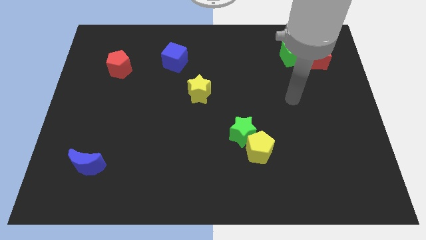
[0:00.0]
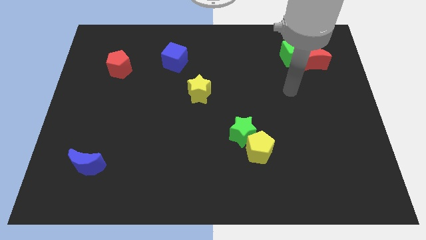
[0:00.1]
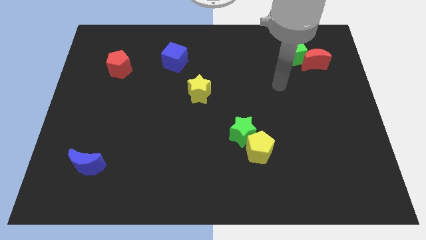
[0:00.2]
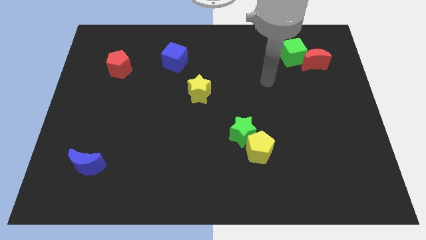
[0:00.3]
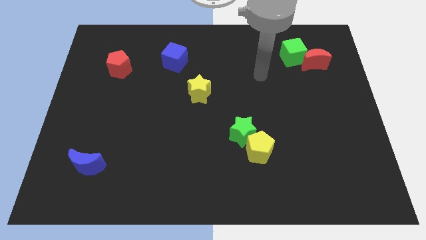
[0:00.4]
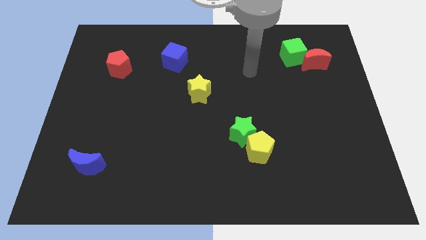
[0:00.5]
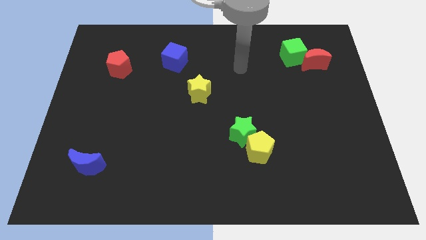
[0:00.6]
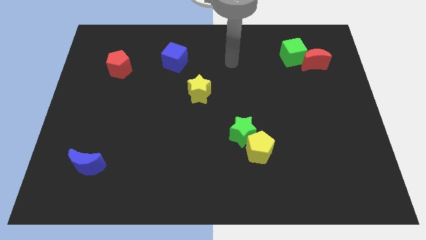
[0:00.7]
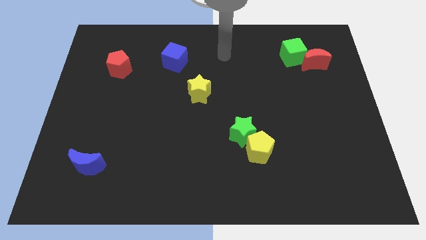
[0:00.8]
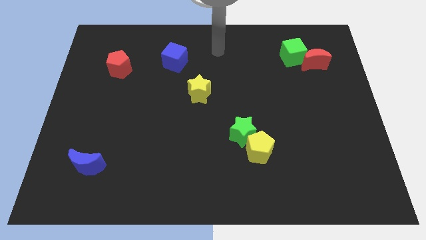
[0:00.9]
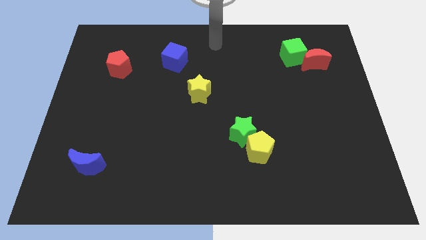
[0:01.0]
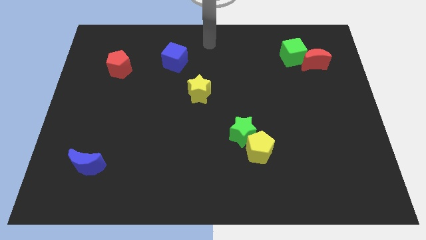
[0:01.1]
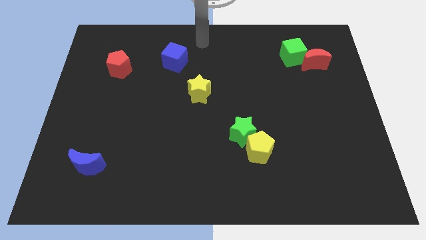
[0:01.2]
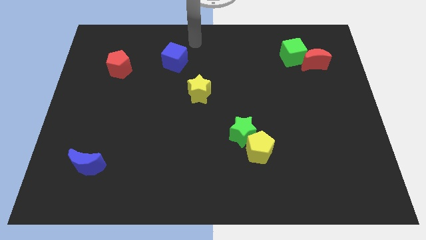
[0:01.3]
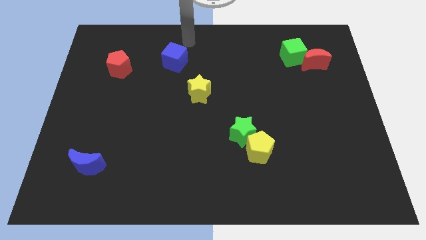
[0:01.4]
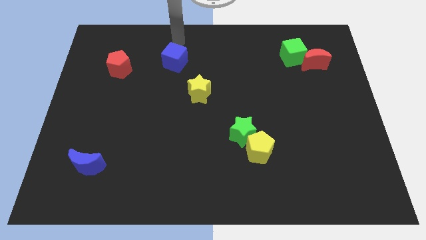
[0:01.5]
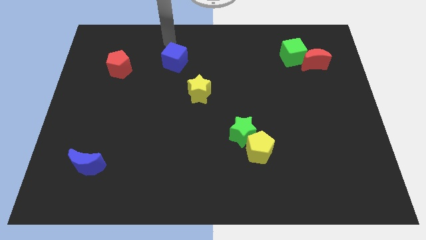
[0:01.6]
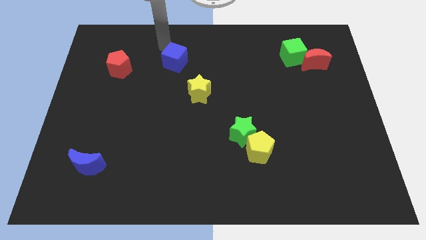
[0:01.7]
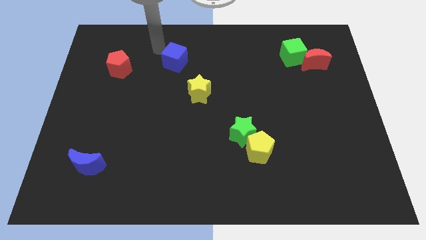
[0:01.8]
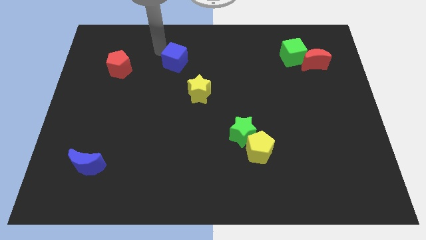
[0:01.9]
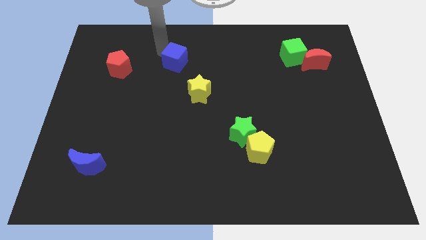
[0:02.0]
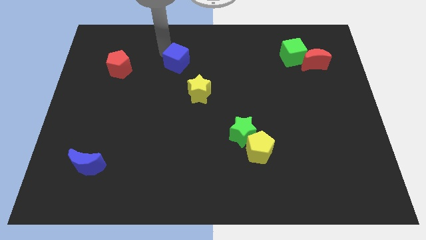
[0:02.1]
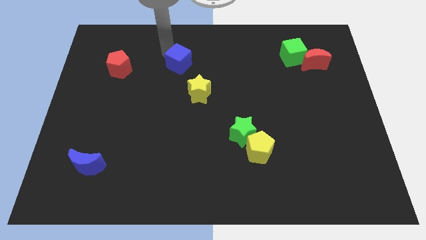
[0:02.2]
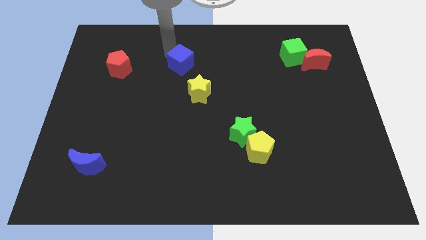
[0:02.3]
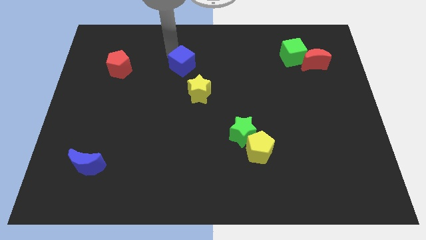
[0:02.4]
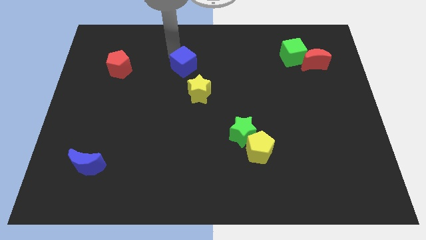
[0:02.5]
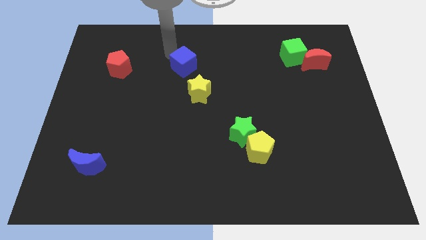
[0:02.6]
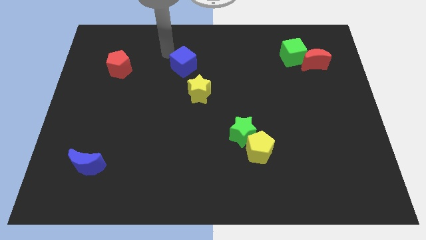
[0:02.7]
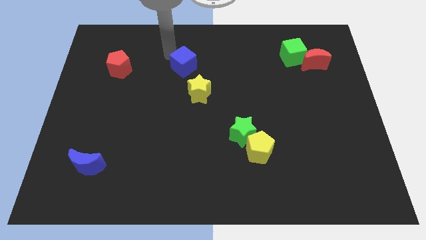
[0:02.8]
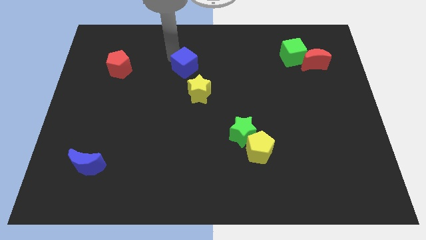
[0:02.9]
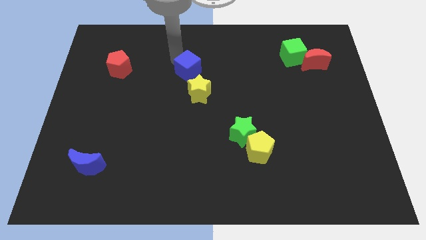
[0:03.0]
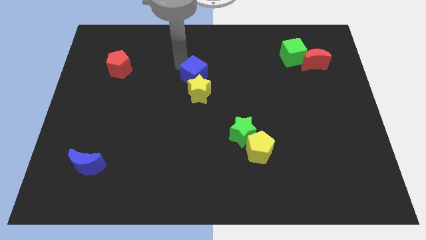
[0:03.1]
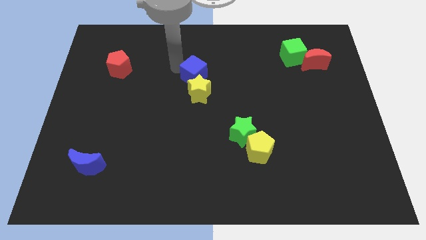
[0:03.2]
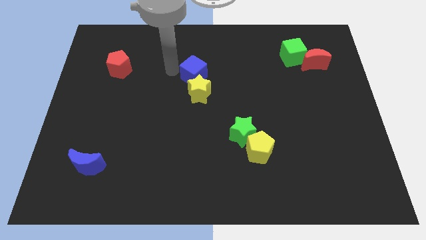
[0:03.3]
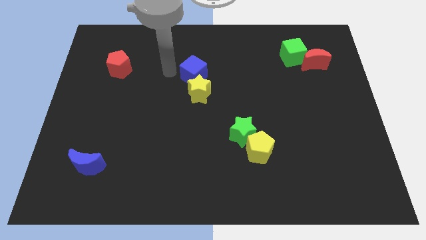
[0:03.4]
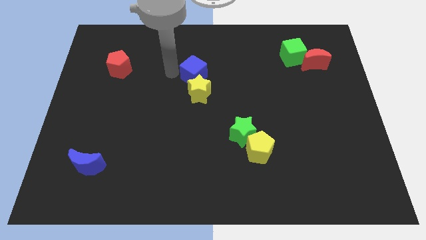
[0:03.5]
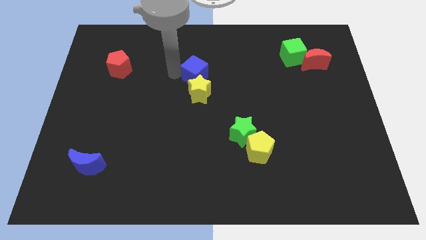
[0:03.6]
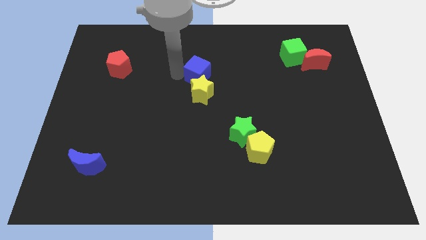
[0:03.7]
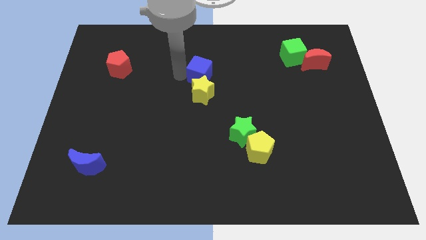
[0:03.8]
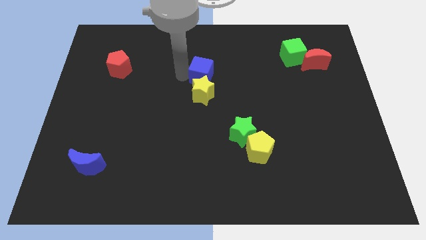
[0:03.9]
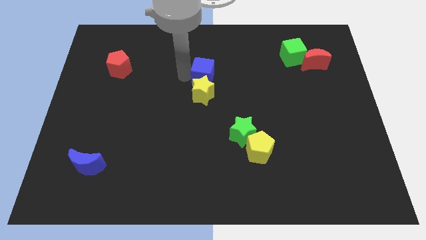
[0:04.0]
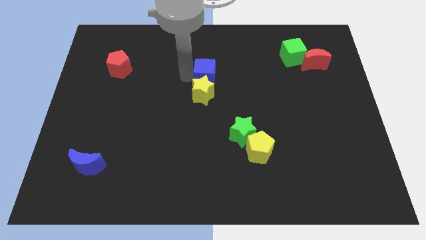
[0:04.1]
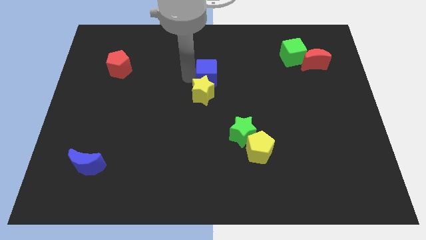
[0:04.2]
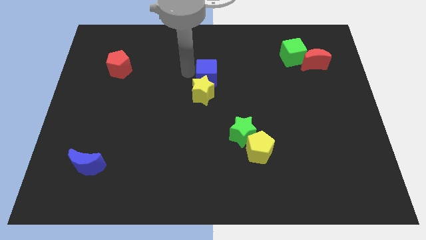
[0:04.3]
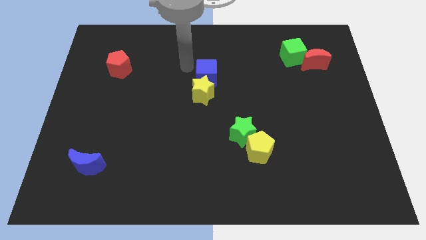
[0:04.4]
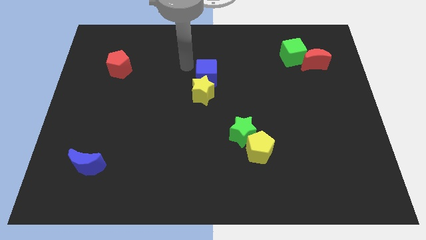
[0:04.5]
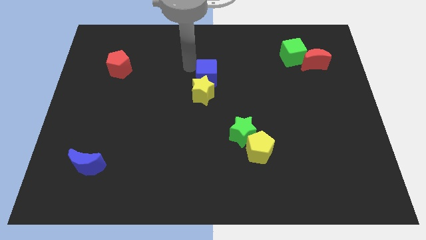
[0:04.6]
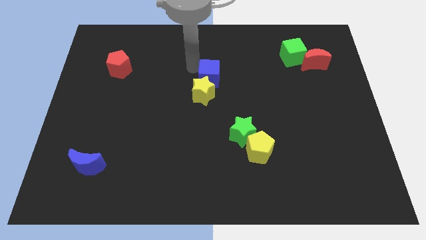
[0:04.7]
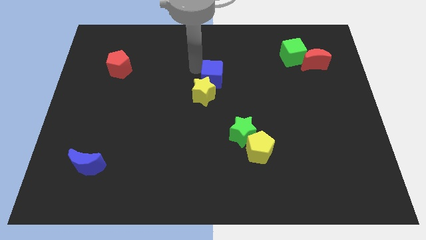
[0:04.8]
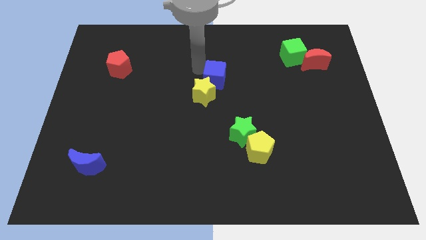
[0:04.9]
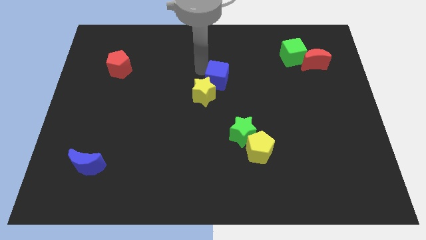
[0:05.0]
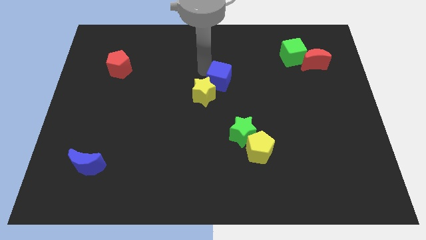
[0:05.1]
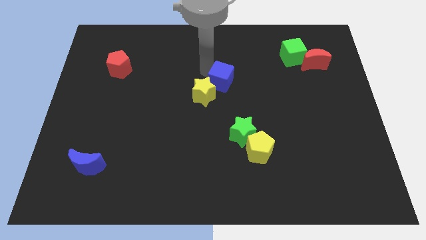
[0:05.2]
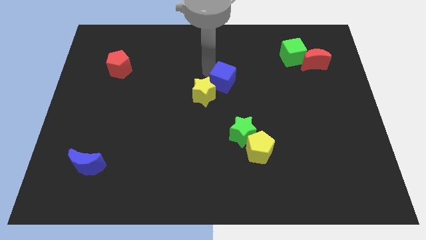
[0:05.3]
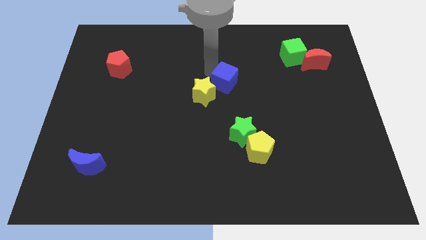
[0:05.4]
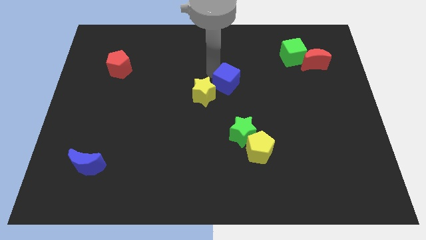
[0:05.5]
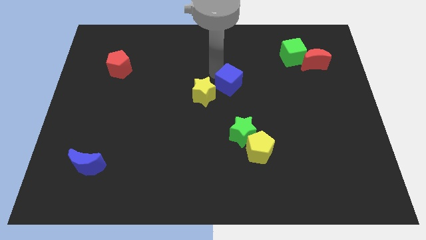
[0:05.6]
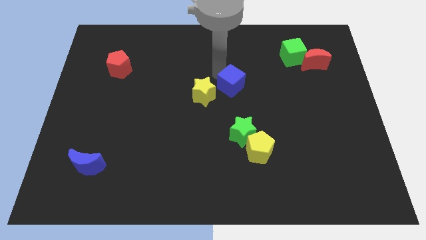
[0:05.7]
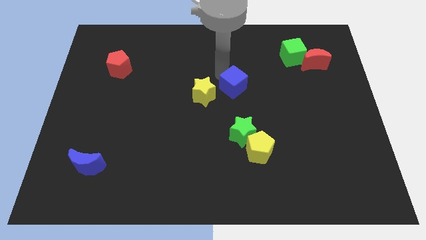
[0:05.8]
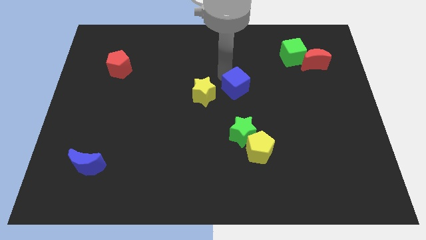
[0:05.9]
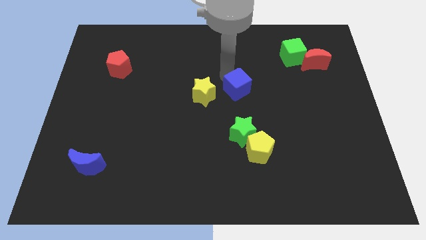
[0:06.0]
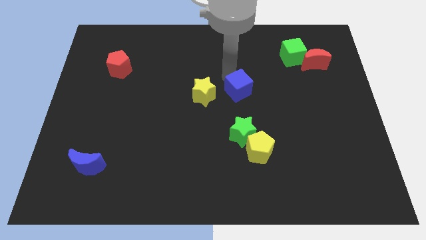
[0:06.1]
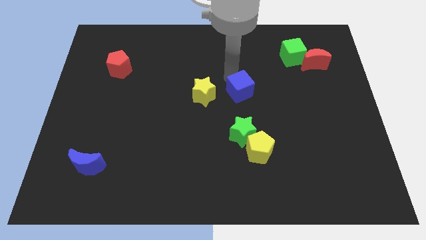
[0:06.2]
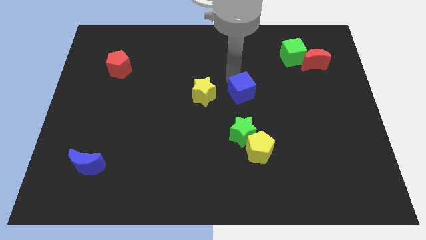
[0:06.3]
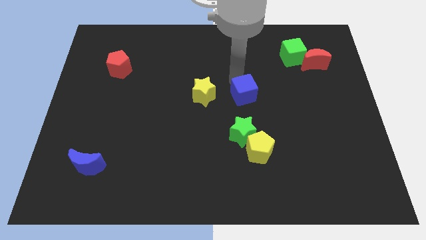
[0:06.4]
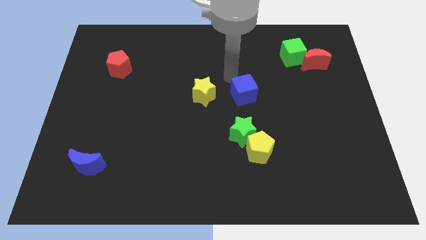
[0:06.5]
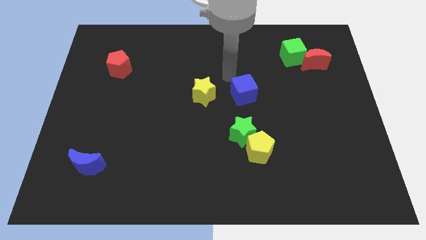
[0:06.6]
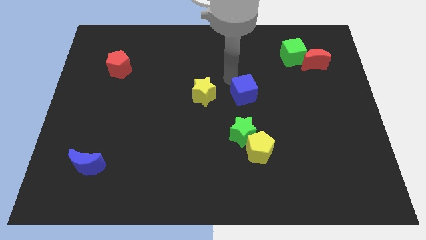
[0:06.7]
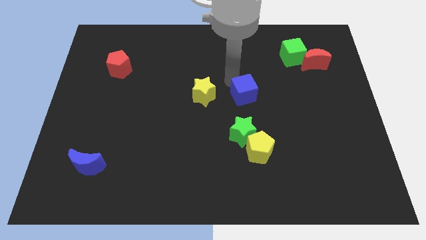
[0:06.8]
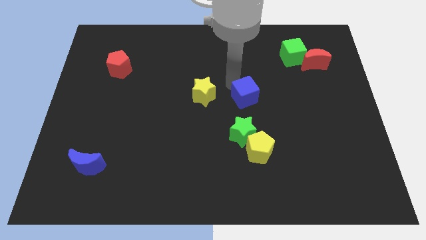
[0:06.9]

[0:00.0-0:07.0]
slide the blue cube down and then right

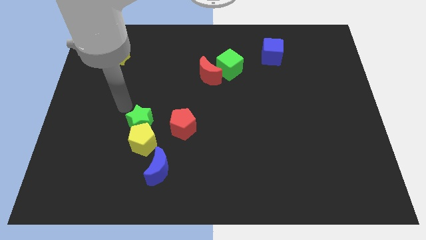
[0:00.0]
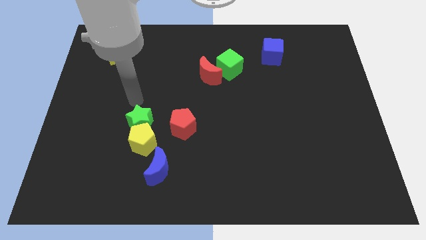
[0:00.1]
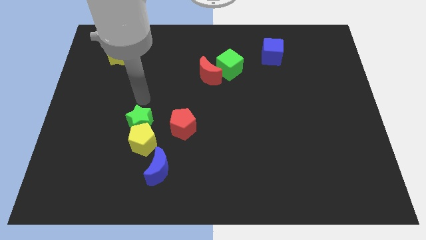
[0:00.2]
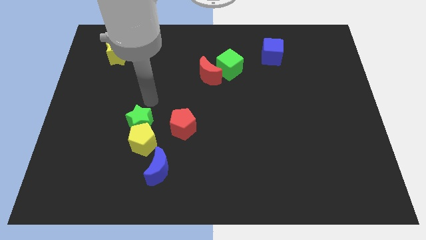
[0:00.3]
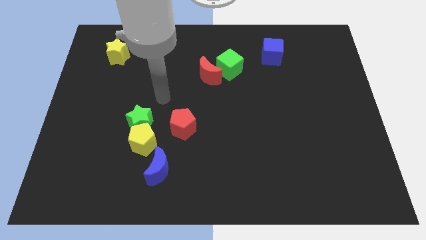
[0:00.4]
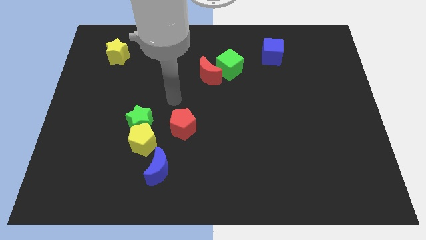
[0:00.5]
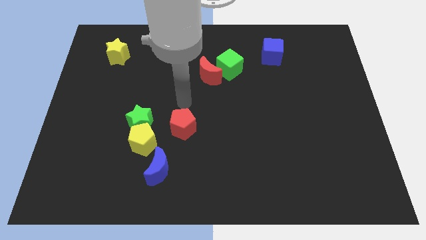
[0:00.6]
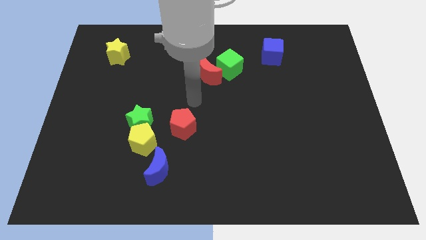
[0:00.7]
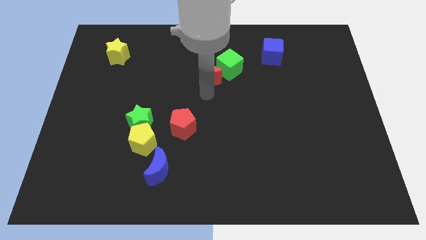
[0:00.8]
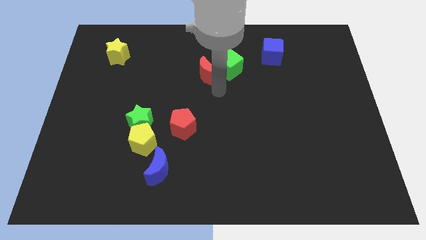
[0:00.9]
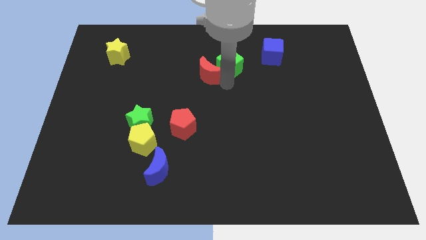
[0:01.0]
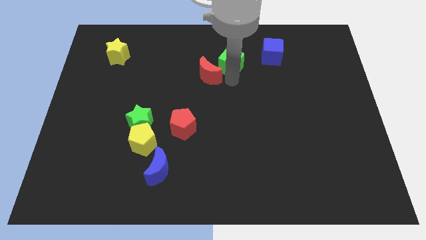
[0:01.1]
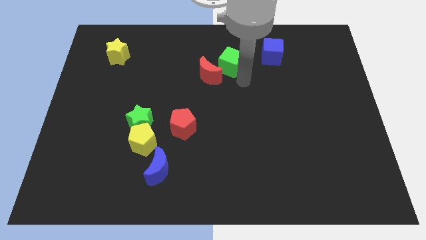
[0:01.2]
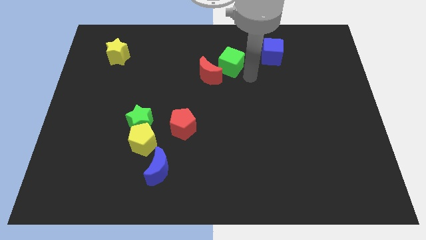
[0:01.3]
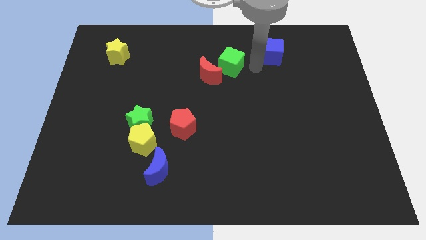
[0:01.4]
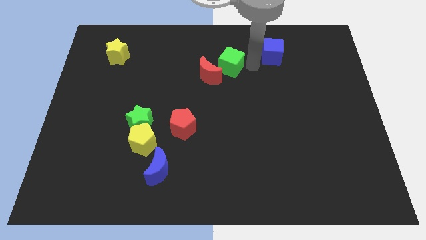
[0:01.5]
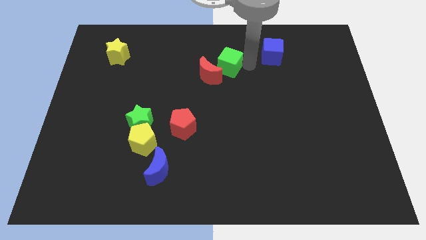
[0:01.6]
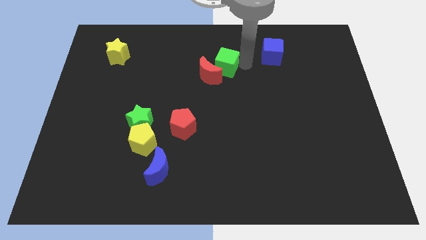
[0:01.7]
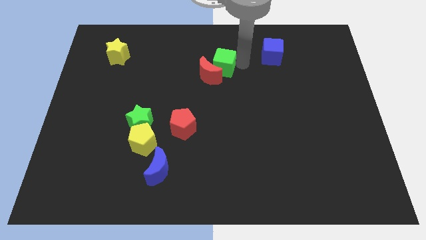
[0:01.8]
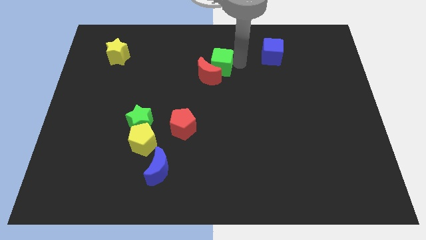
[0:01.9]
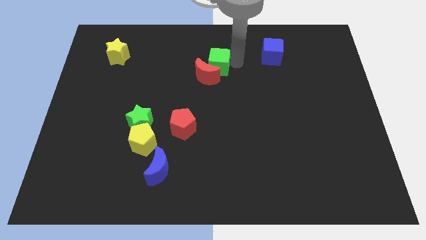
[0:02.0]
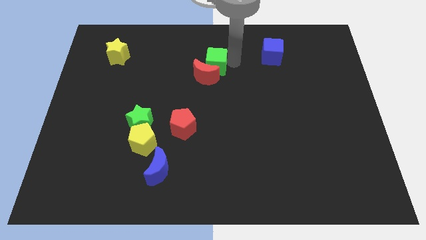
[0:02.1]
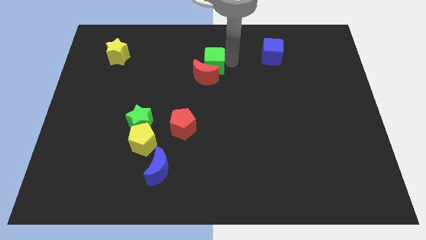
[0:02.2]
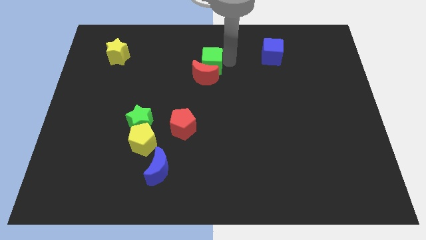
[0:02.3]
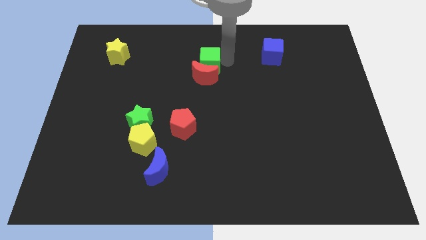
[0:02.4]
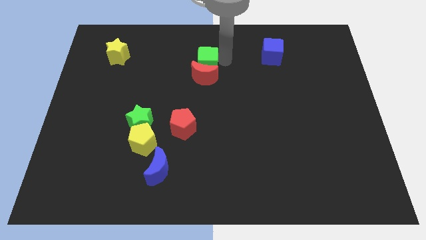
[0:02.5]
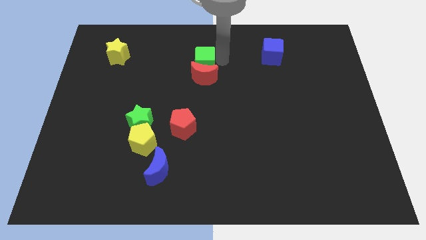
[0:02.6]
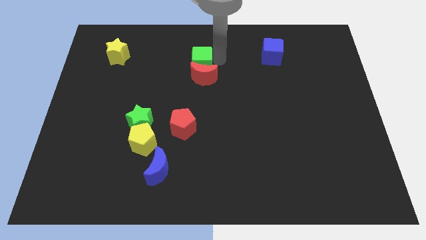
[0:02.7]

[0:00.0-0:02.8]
push the green cube somewhat left
